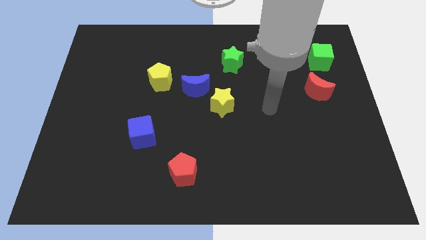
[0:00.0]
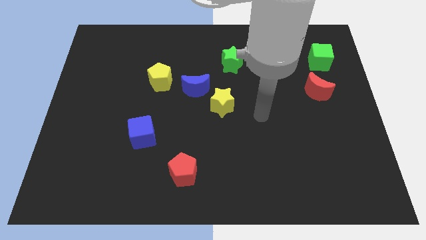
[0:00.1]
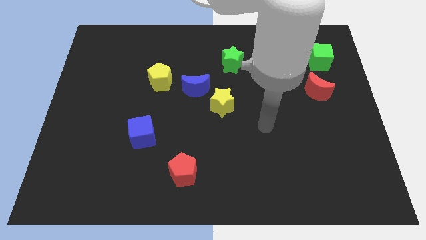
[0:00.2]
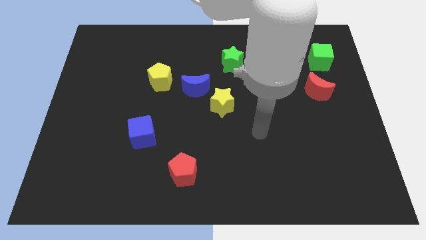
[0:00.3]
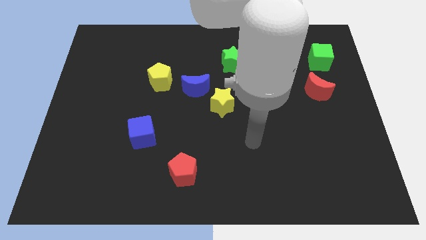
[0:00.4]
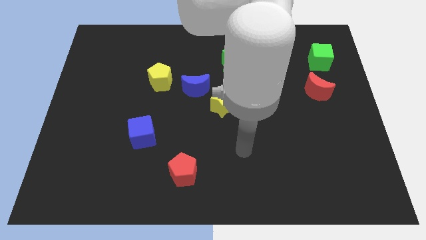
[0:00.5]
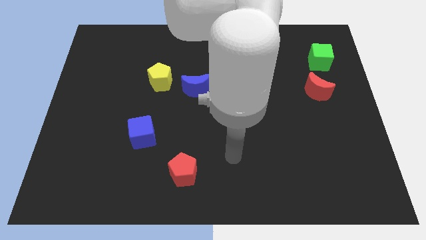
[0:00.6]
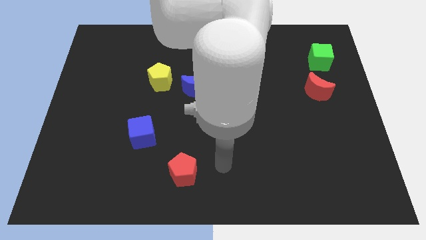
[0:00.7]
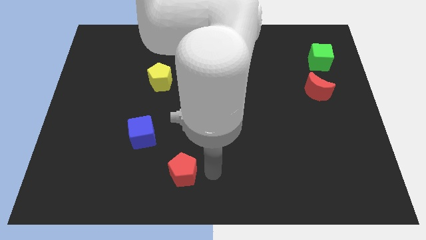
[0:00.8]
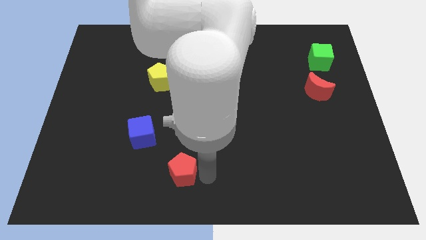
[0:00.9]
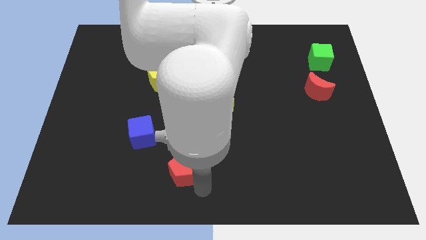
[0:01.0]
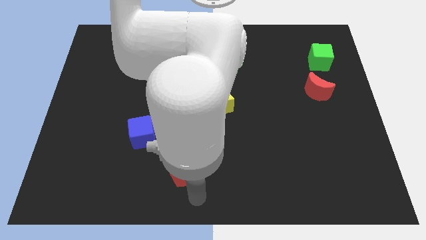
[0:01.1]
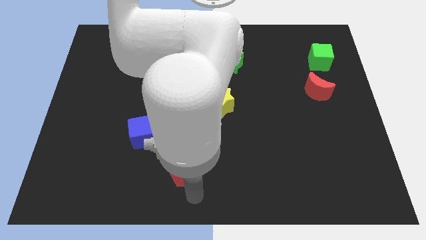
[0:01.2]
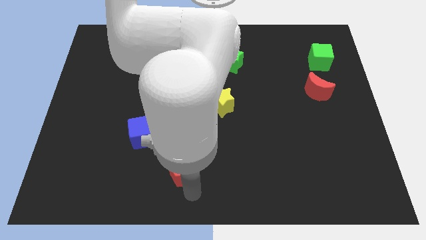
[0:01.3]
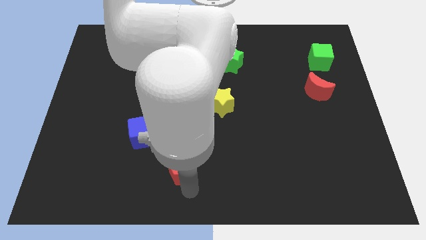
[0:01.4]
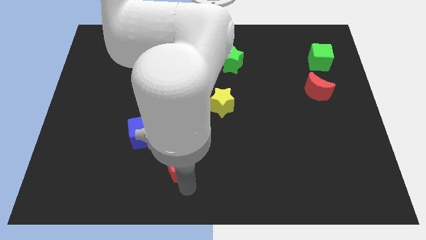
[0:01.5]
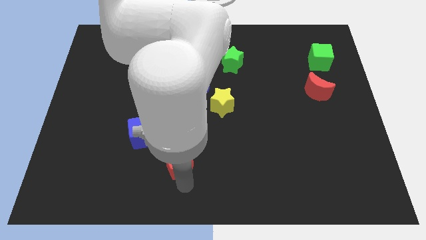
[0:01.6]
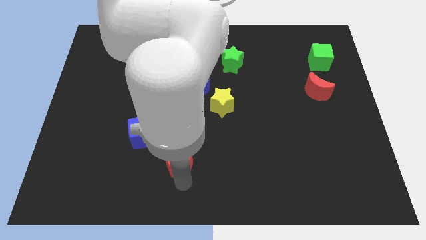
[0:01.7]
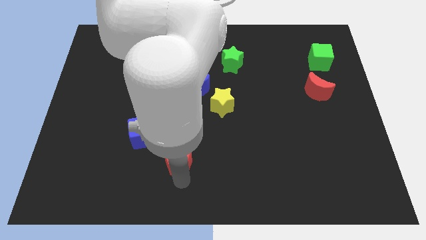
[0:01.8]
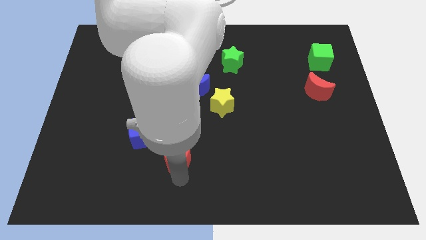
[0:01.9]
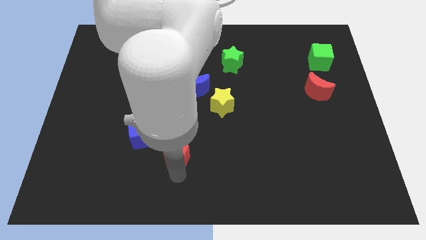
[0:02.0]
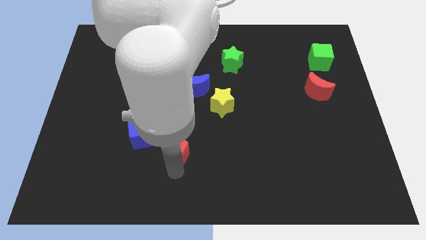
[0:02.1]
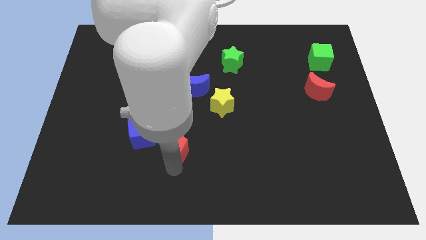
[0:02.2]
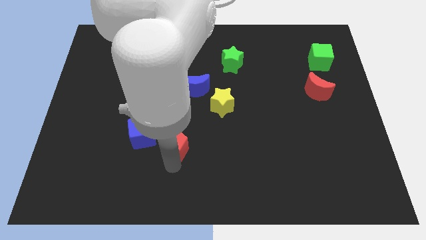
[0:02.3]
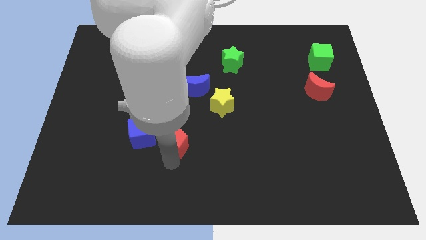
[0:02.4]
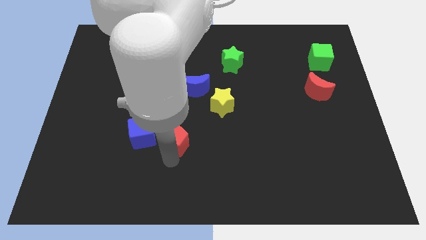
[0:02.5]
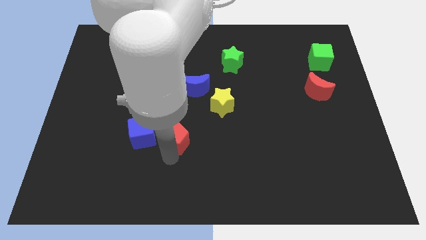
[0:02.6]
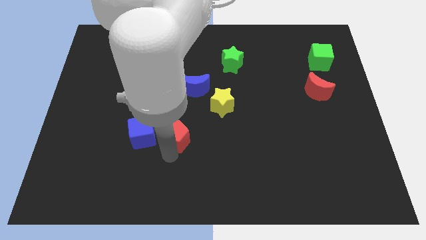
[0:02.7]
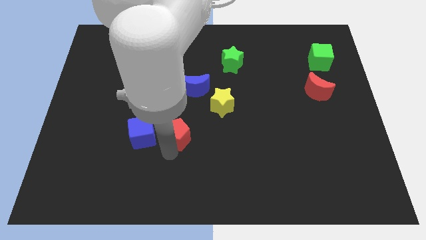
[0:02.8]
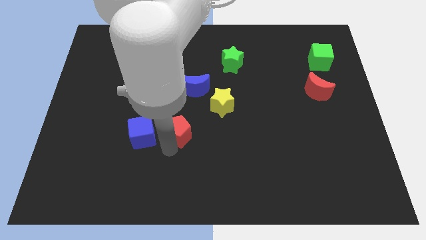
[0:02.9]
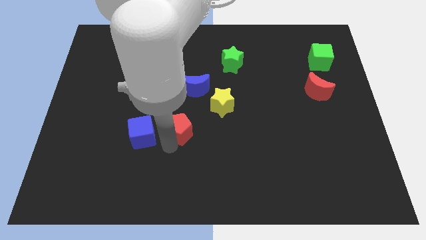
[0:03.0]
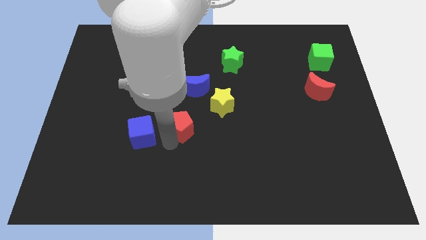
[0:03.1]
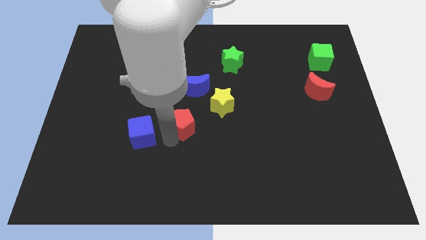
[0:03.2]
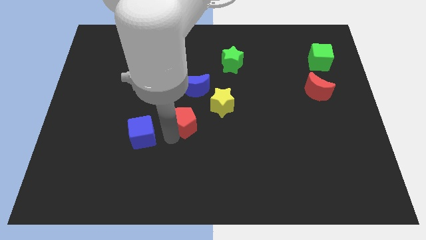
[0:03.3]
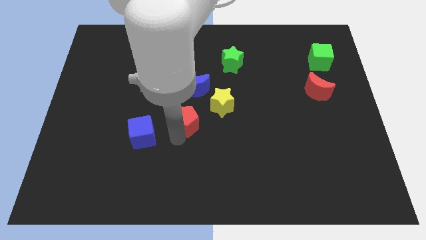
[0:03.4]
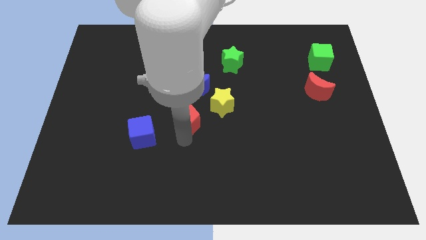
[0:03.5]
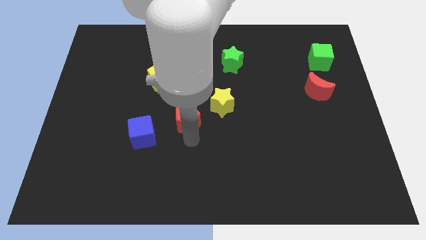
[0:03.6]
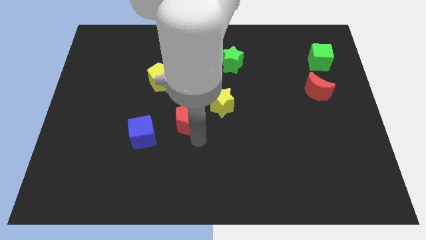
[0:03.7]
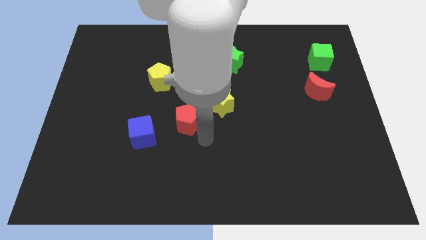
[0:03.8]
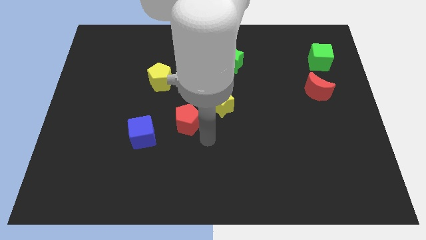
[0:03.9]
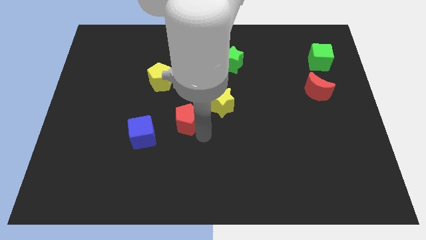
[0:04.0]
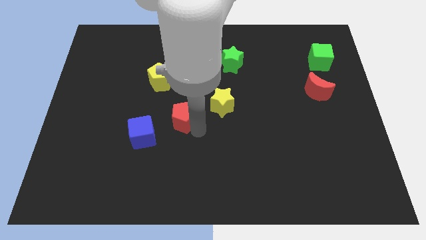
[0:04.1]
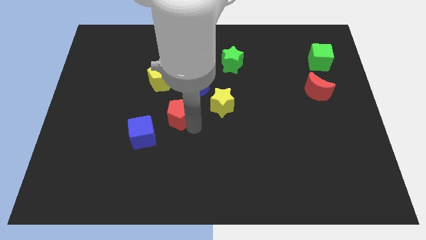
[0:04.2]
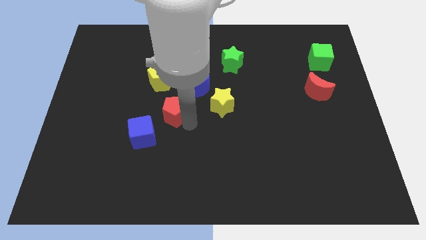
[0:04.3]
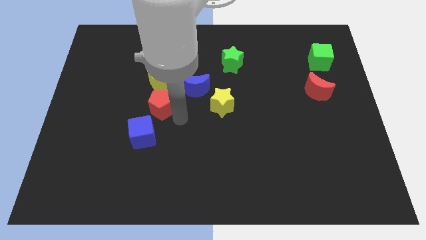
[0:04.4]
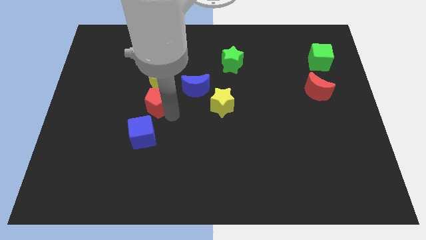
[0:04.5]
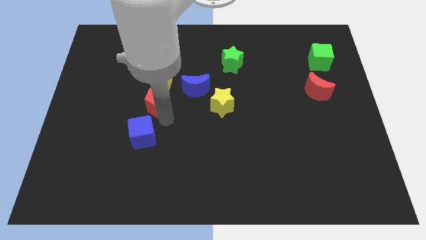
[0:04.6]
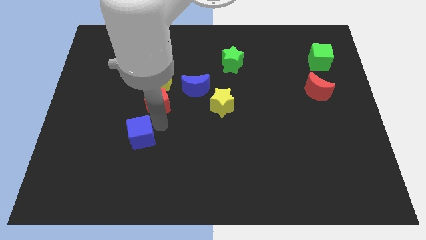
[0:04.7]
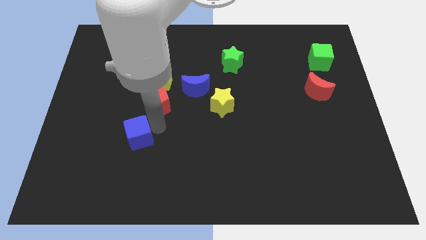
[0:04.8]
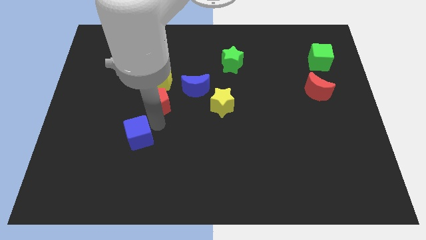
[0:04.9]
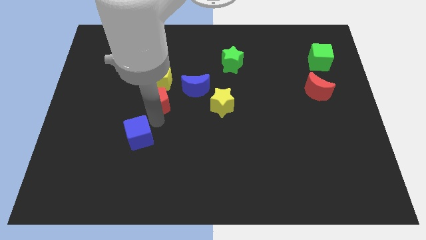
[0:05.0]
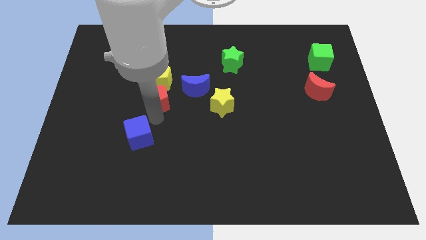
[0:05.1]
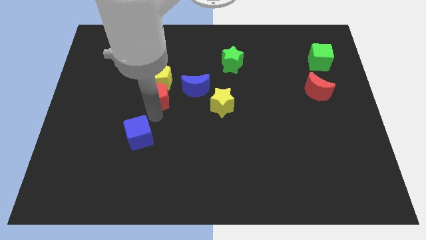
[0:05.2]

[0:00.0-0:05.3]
move the red pentagon next to the yellow pentagon

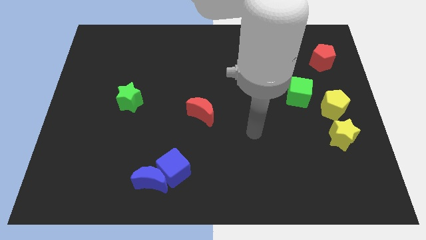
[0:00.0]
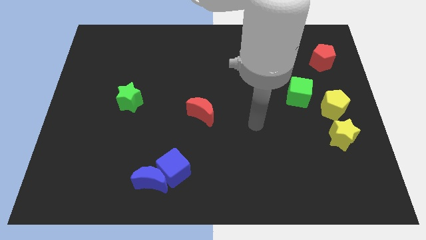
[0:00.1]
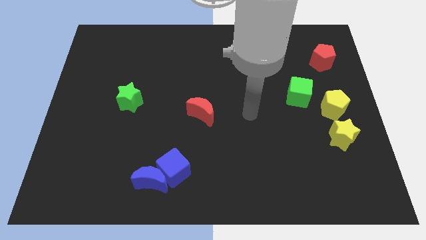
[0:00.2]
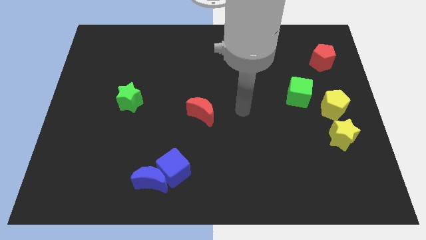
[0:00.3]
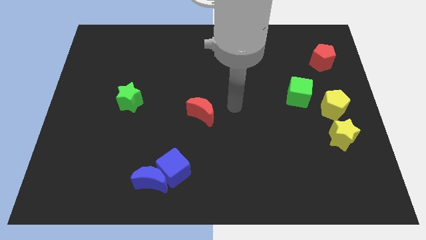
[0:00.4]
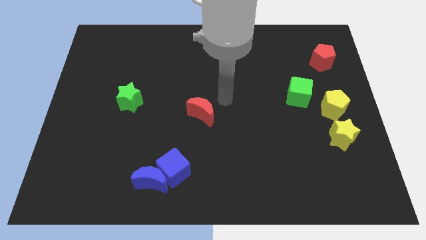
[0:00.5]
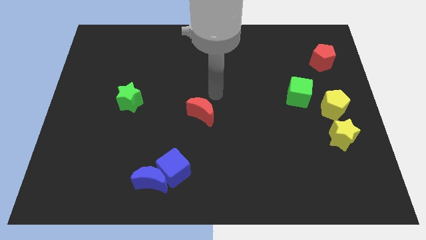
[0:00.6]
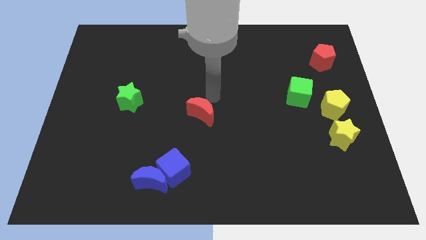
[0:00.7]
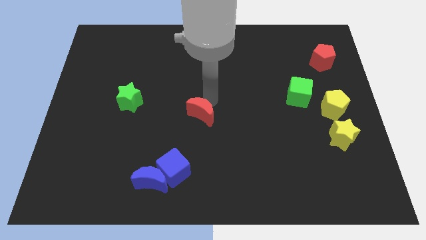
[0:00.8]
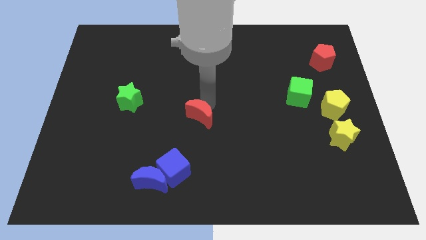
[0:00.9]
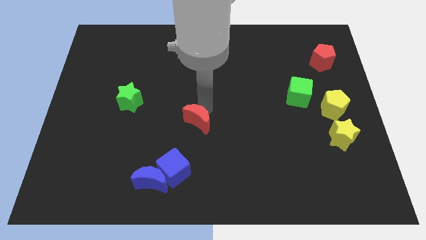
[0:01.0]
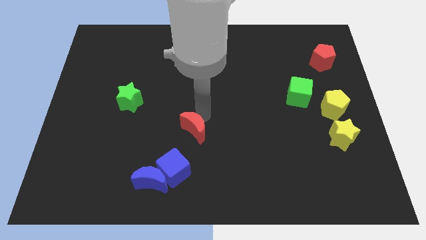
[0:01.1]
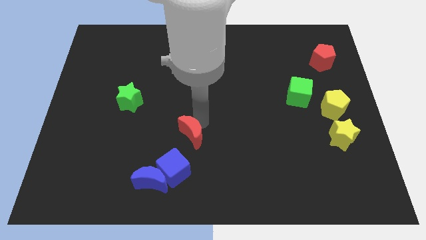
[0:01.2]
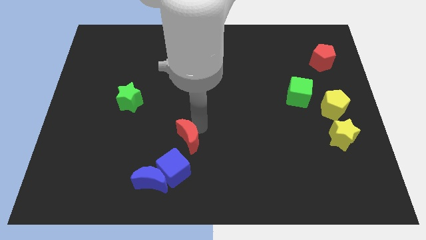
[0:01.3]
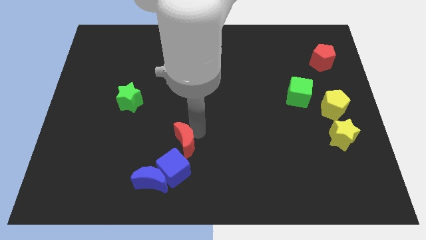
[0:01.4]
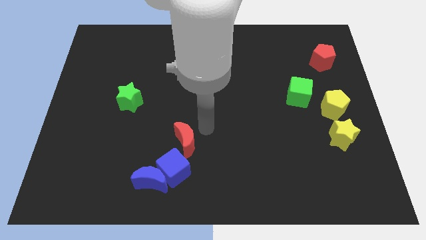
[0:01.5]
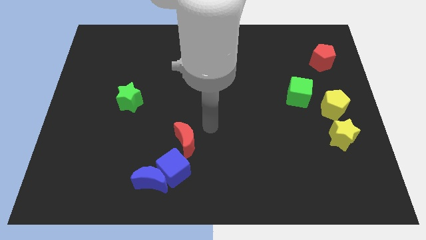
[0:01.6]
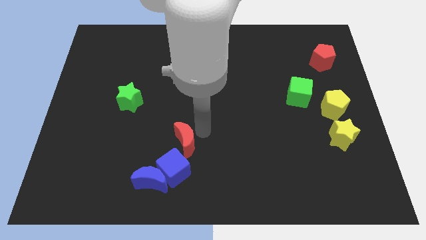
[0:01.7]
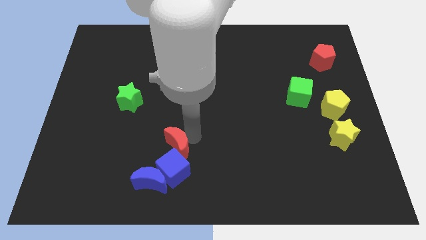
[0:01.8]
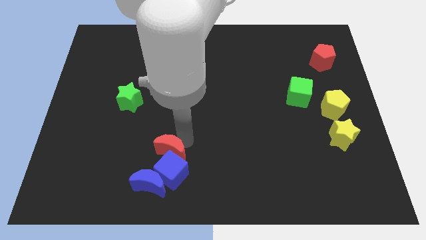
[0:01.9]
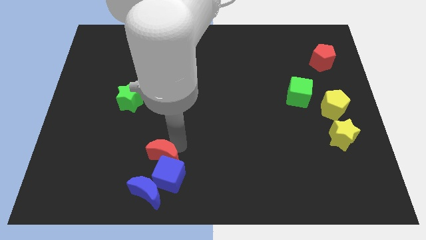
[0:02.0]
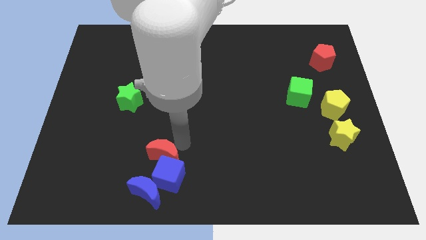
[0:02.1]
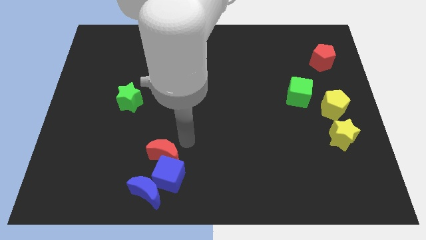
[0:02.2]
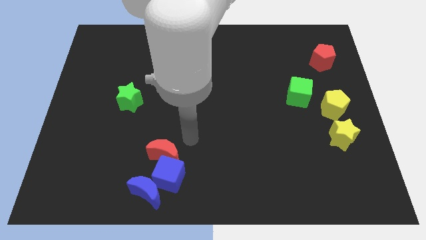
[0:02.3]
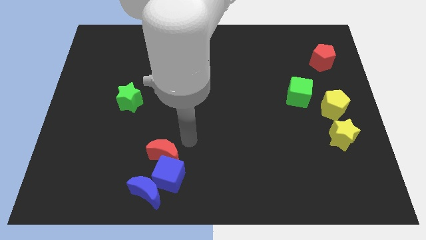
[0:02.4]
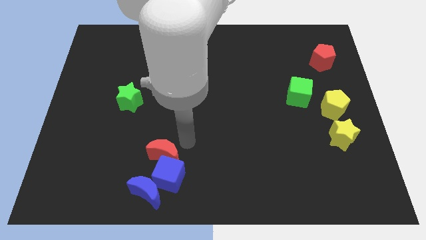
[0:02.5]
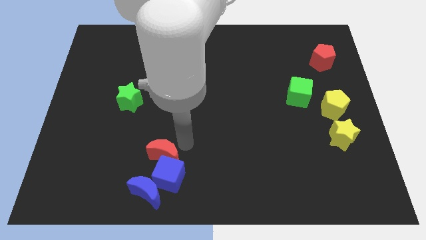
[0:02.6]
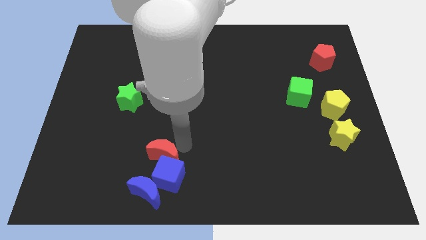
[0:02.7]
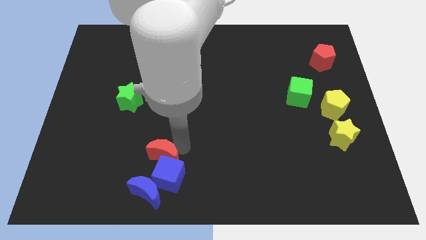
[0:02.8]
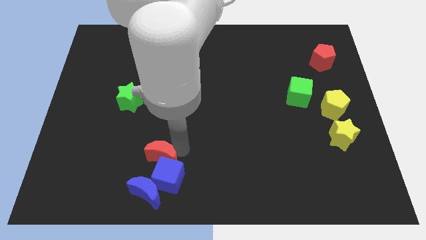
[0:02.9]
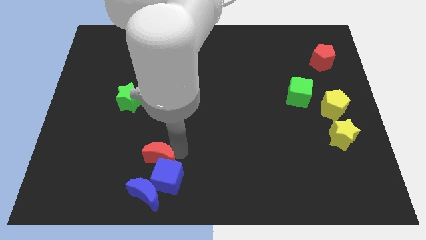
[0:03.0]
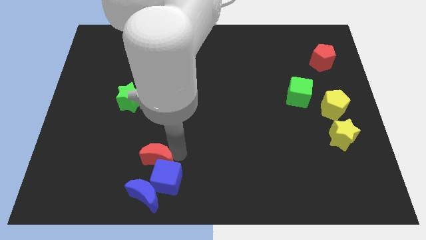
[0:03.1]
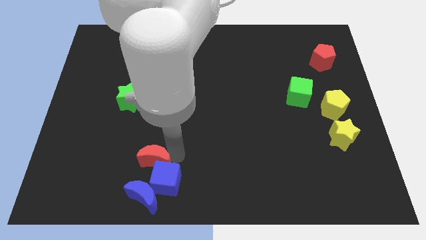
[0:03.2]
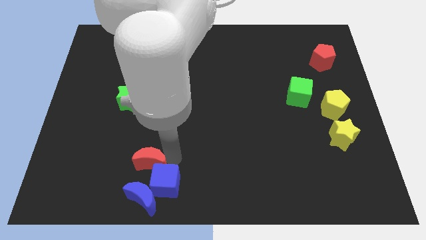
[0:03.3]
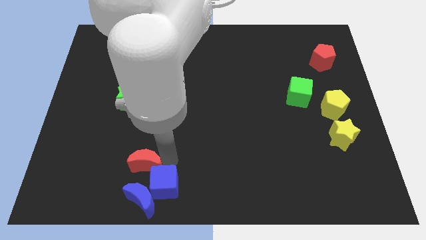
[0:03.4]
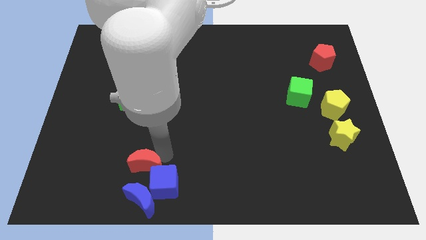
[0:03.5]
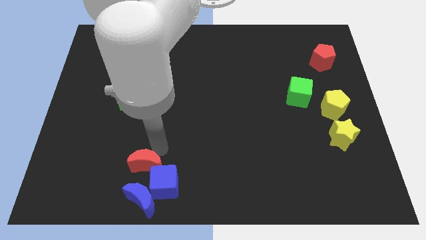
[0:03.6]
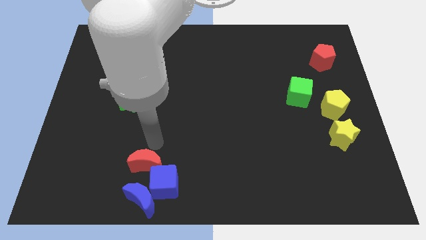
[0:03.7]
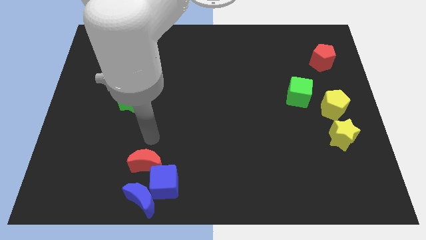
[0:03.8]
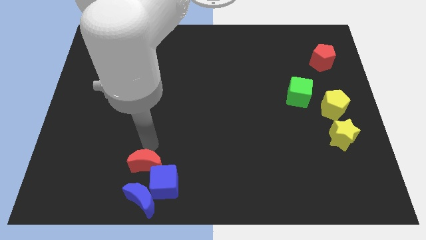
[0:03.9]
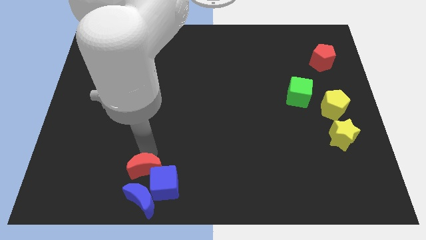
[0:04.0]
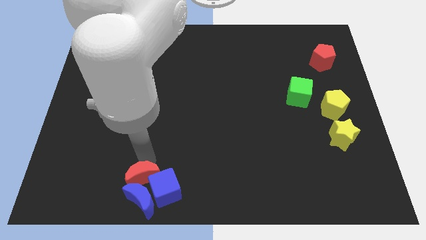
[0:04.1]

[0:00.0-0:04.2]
put the red moon next to the blue moon
